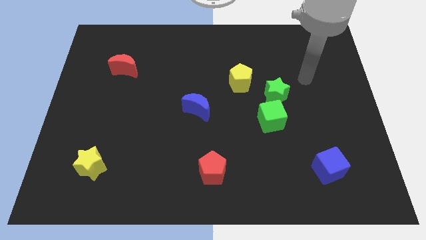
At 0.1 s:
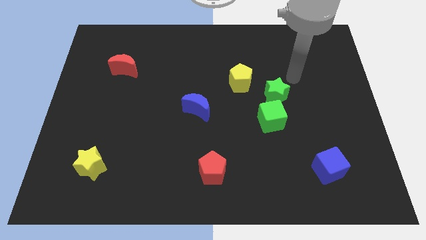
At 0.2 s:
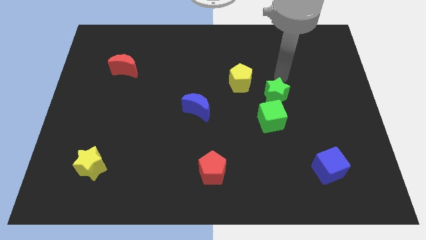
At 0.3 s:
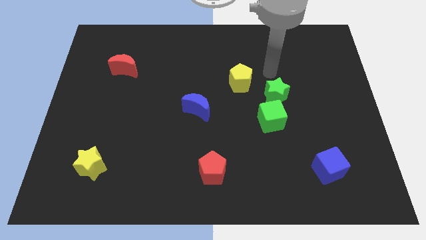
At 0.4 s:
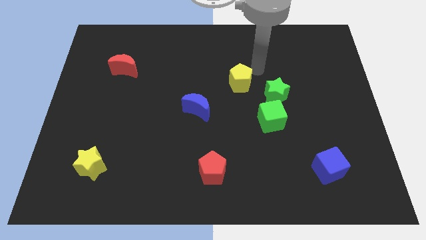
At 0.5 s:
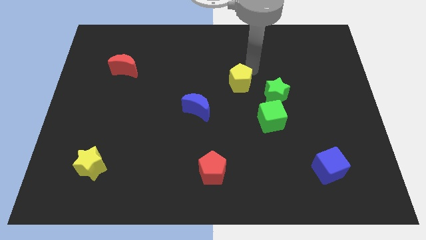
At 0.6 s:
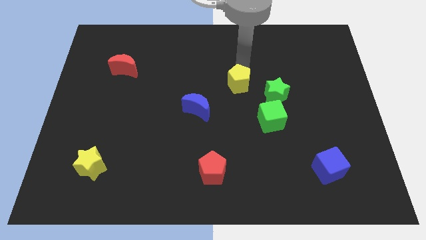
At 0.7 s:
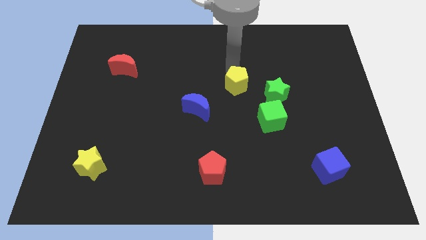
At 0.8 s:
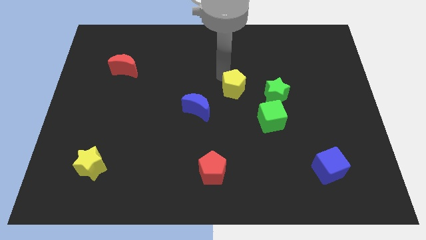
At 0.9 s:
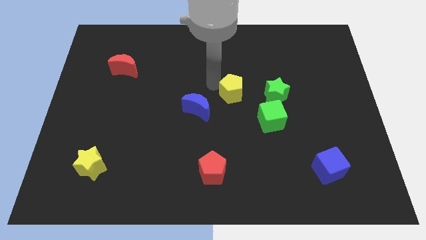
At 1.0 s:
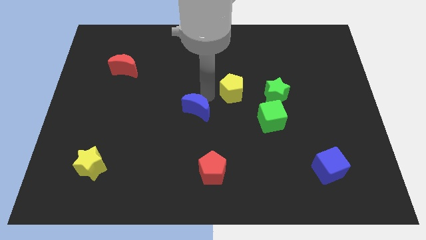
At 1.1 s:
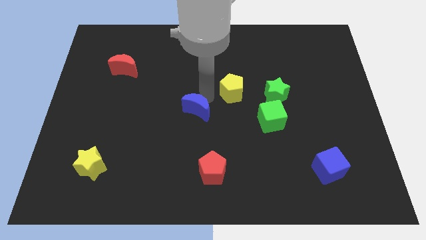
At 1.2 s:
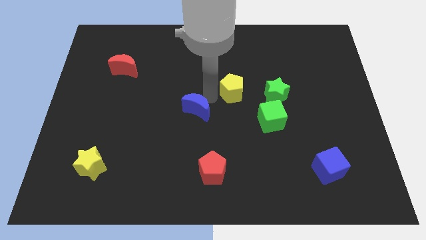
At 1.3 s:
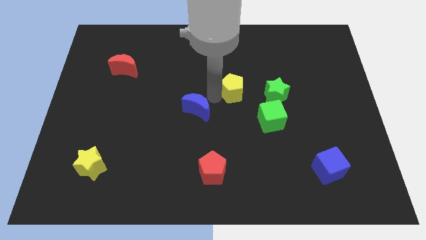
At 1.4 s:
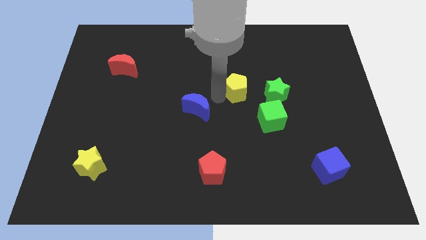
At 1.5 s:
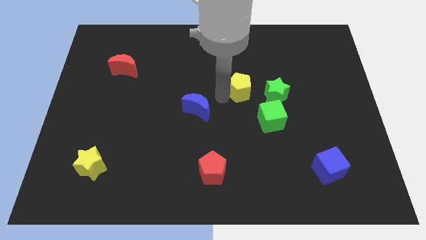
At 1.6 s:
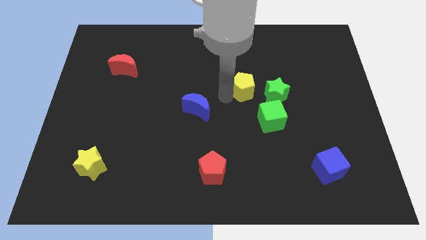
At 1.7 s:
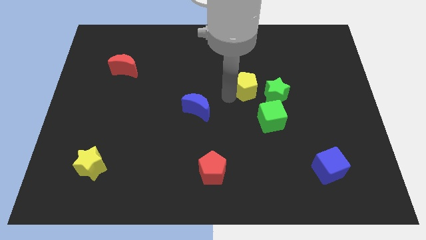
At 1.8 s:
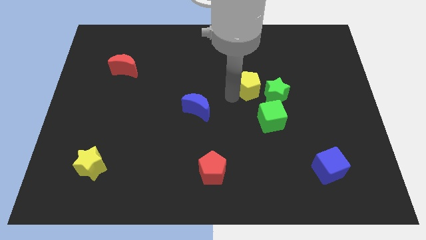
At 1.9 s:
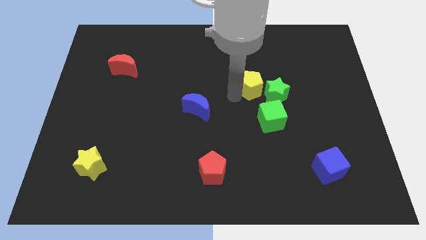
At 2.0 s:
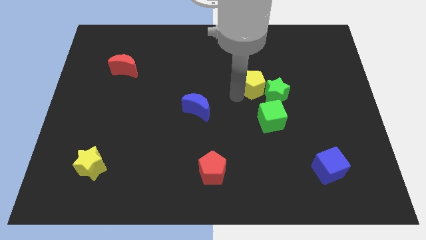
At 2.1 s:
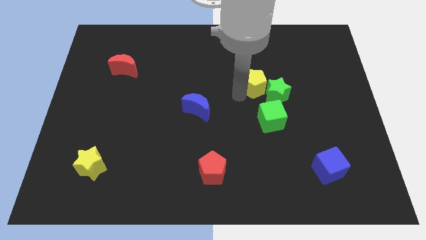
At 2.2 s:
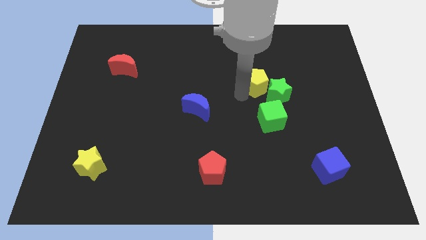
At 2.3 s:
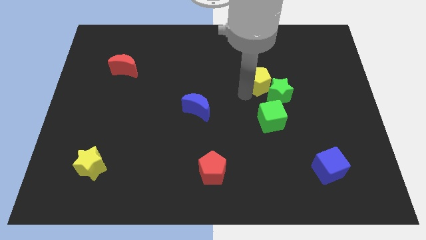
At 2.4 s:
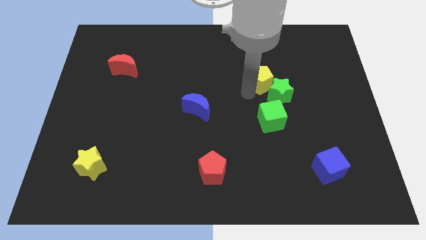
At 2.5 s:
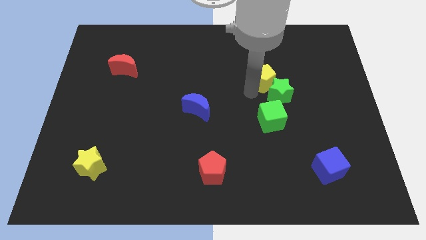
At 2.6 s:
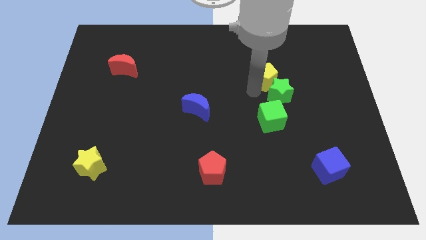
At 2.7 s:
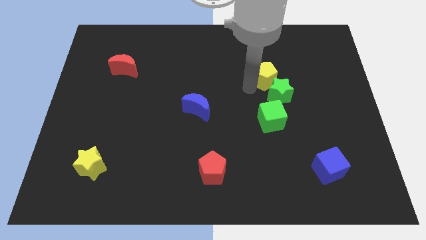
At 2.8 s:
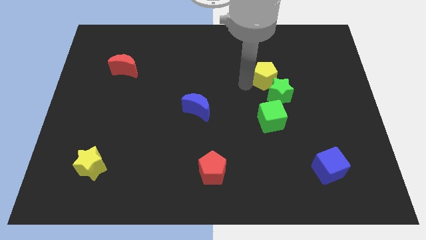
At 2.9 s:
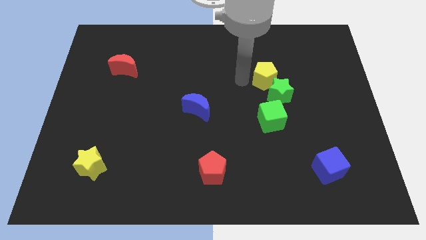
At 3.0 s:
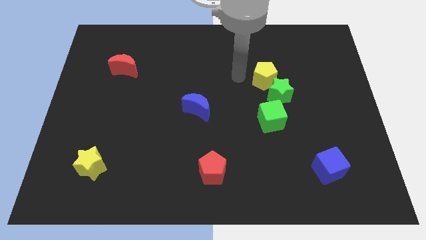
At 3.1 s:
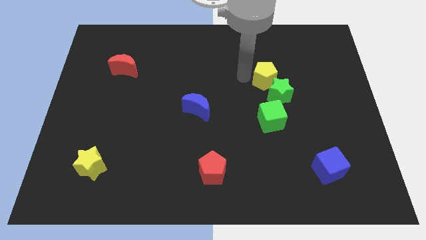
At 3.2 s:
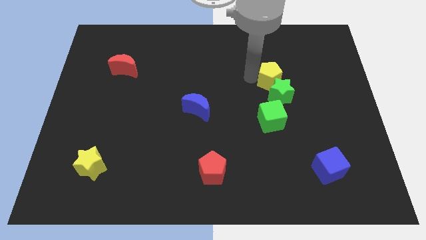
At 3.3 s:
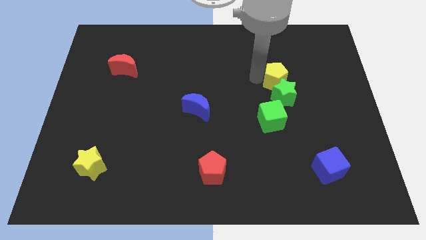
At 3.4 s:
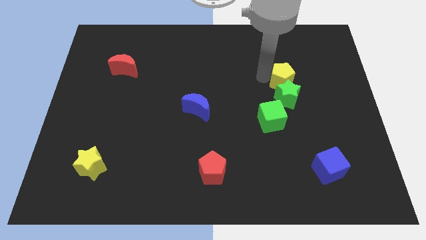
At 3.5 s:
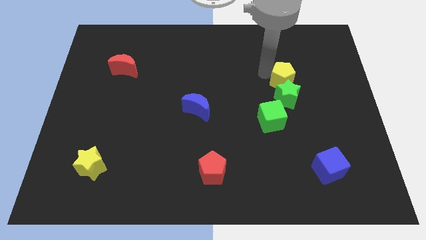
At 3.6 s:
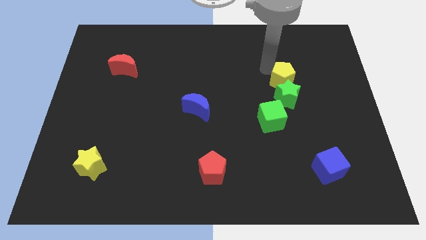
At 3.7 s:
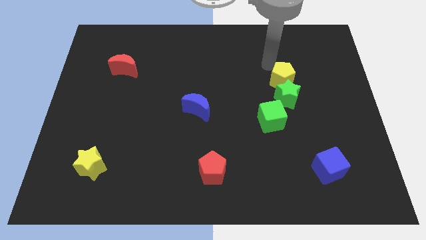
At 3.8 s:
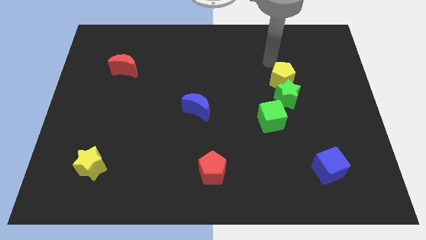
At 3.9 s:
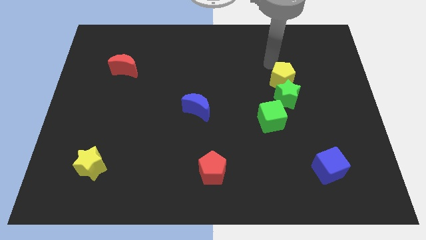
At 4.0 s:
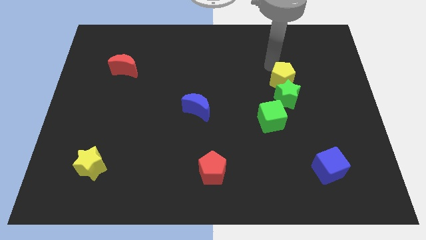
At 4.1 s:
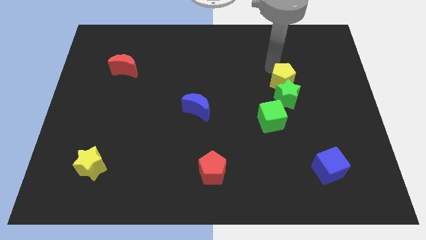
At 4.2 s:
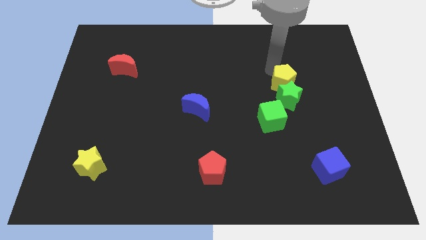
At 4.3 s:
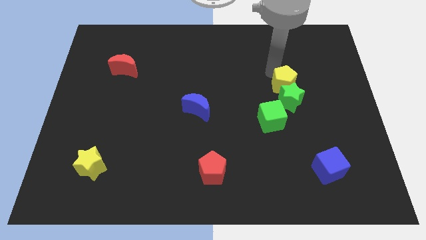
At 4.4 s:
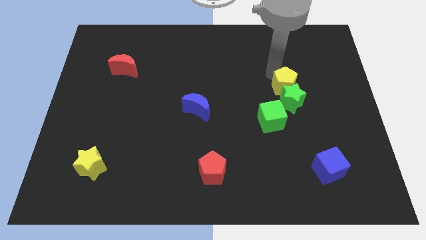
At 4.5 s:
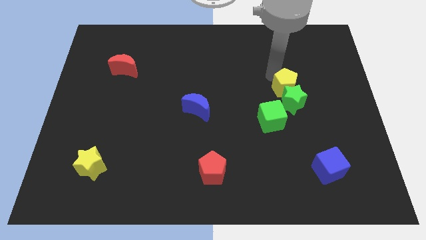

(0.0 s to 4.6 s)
push the yellow pentagon somewhat down and to the right diagonally

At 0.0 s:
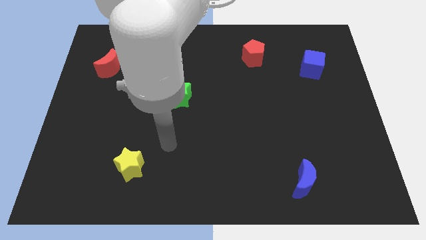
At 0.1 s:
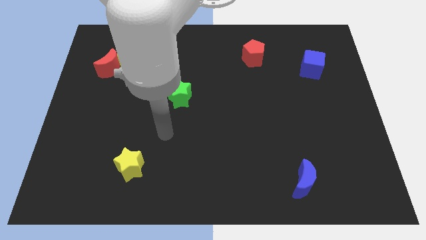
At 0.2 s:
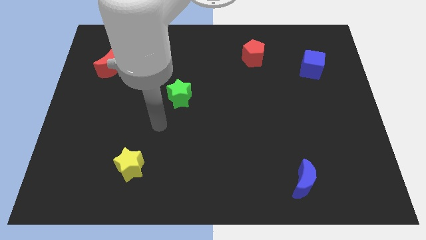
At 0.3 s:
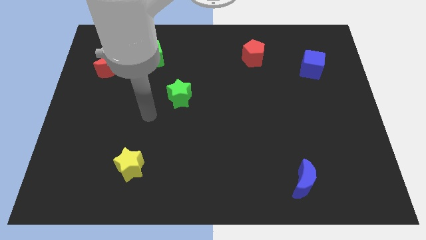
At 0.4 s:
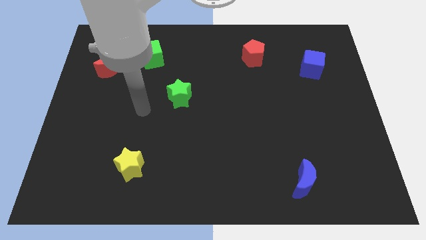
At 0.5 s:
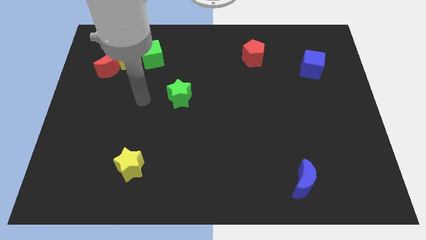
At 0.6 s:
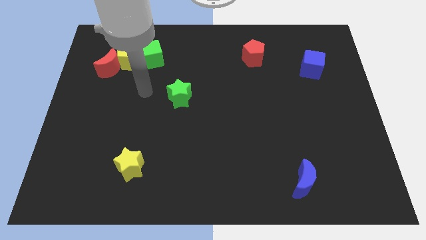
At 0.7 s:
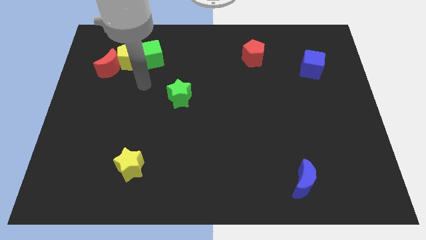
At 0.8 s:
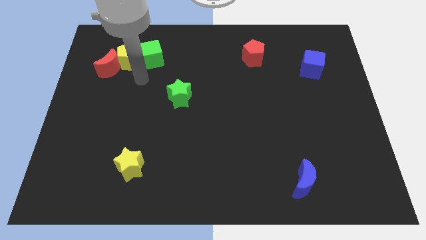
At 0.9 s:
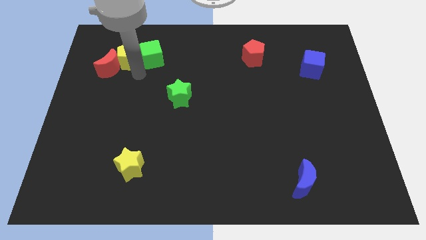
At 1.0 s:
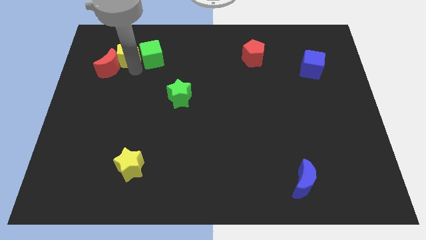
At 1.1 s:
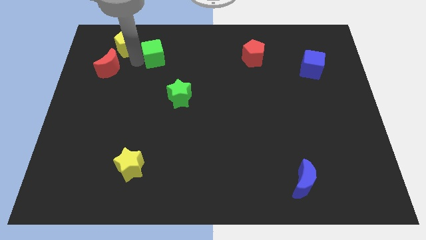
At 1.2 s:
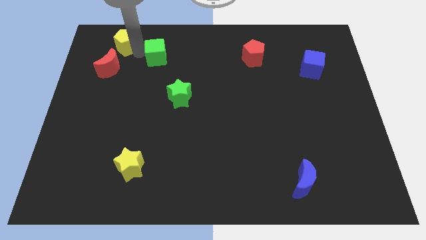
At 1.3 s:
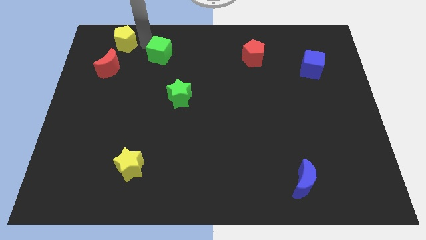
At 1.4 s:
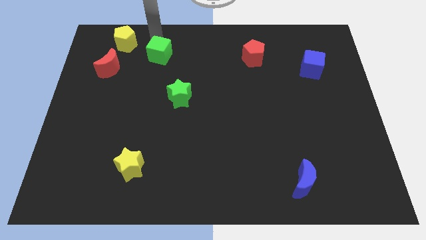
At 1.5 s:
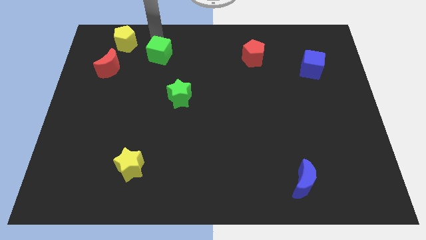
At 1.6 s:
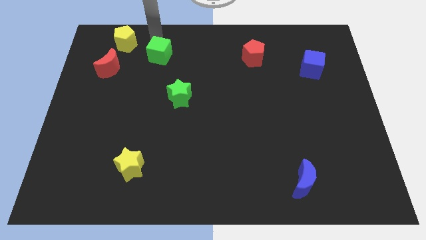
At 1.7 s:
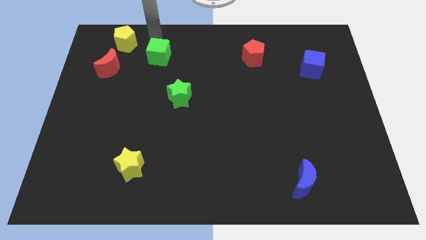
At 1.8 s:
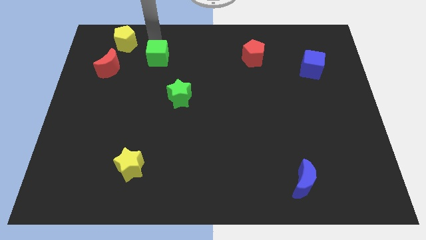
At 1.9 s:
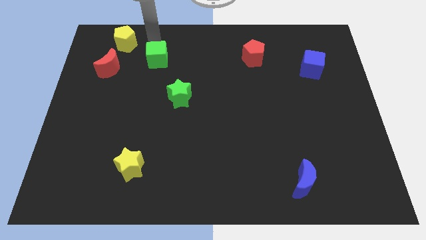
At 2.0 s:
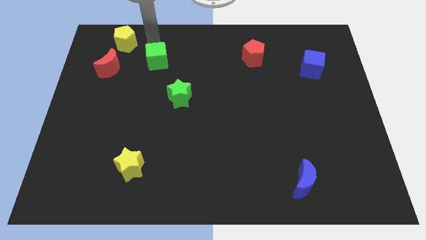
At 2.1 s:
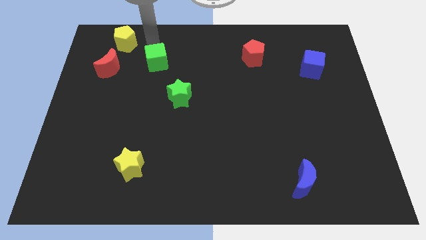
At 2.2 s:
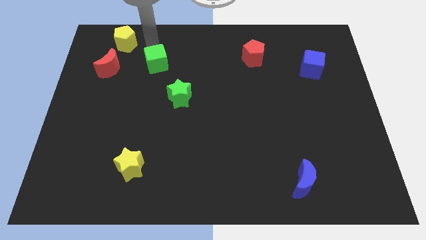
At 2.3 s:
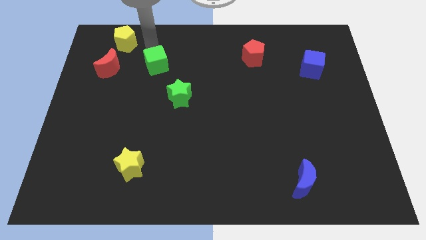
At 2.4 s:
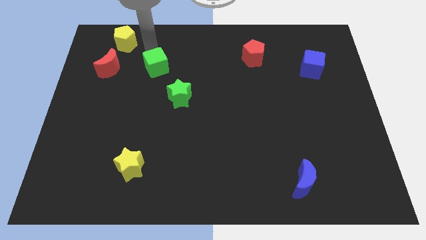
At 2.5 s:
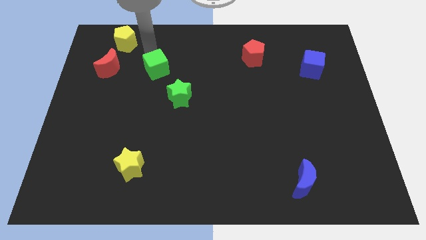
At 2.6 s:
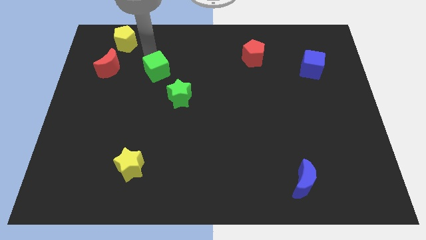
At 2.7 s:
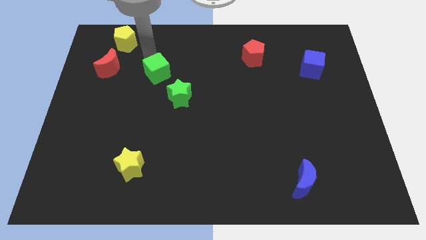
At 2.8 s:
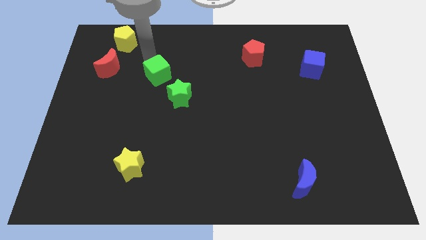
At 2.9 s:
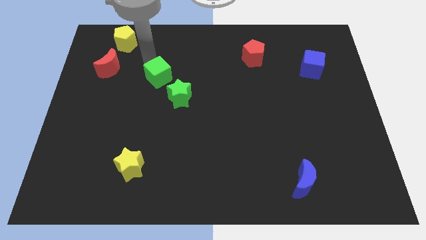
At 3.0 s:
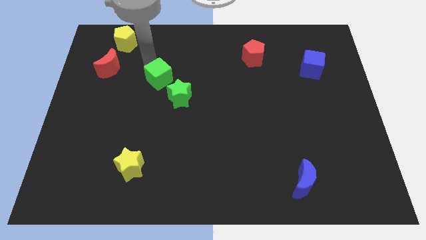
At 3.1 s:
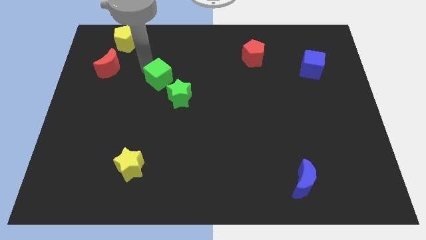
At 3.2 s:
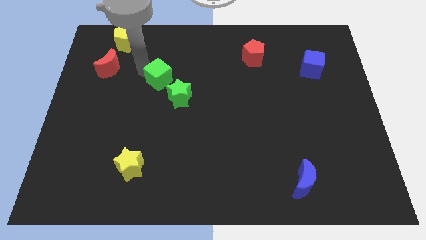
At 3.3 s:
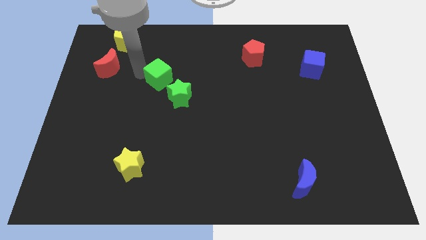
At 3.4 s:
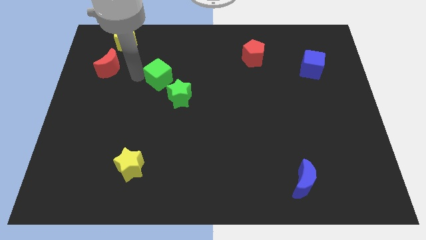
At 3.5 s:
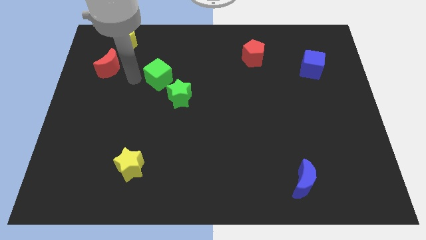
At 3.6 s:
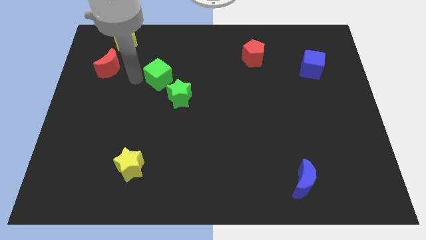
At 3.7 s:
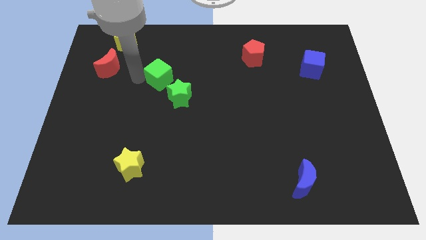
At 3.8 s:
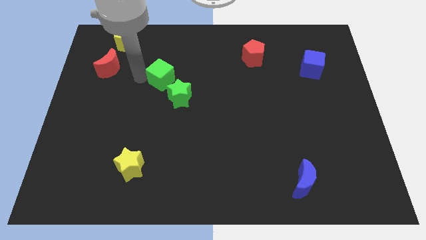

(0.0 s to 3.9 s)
slide the green cube a bit down and to the right diagonally
